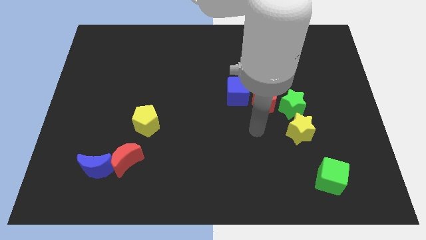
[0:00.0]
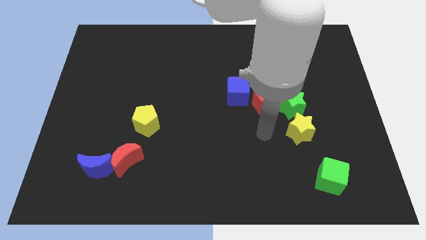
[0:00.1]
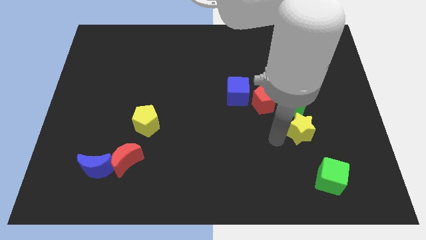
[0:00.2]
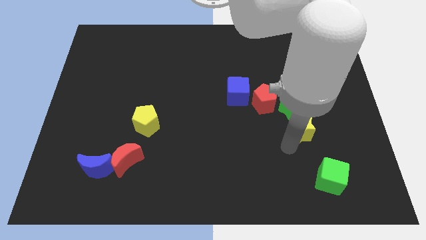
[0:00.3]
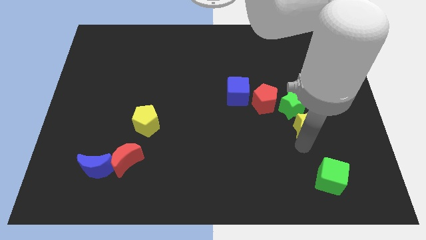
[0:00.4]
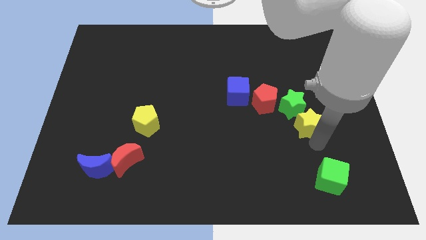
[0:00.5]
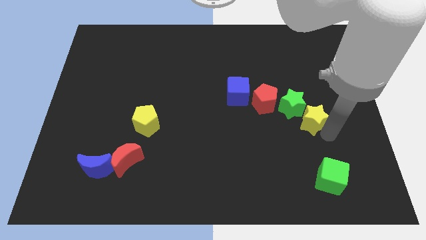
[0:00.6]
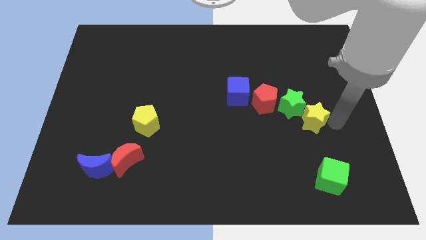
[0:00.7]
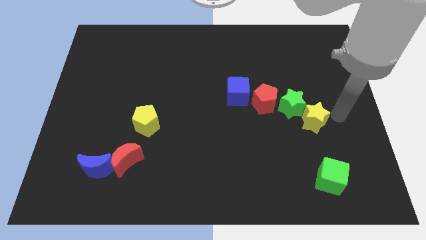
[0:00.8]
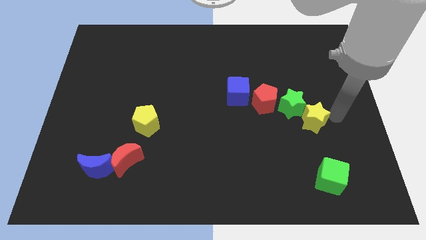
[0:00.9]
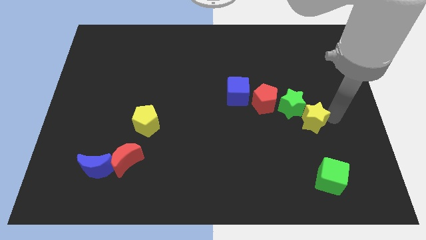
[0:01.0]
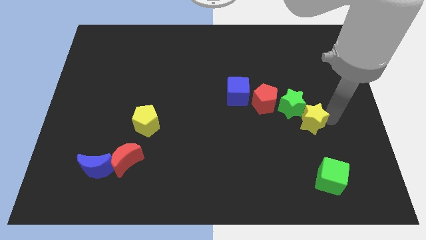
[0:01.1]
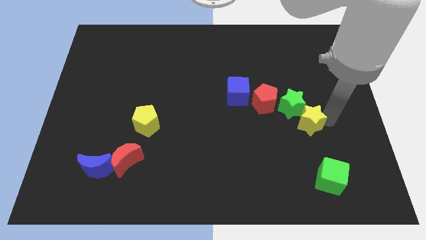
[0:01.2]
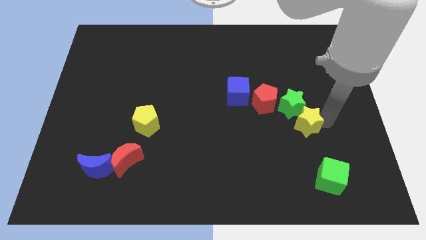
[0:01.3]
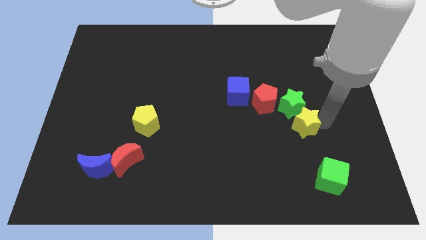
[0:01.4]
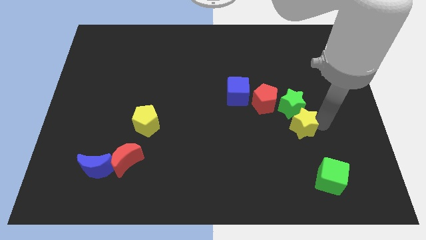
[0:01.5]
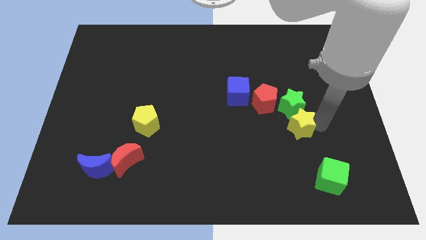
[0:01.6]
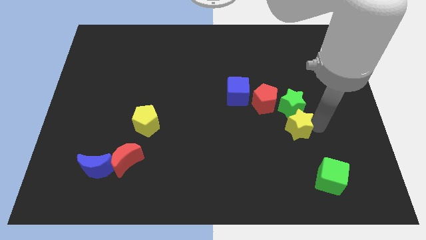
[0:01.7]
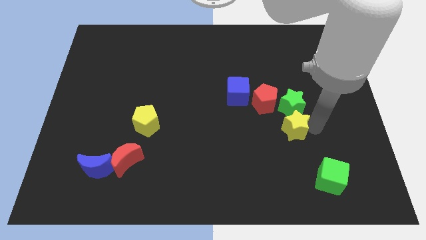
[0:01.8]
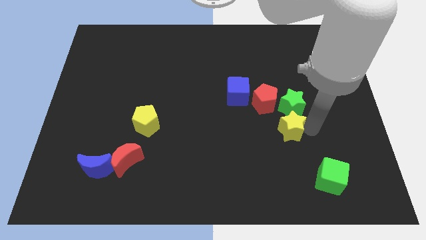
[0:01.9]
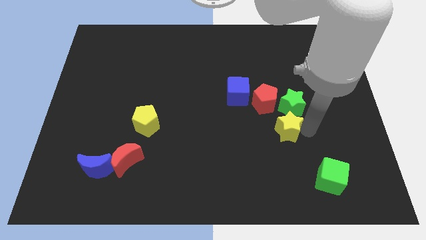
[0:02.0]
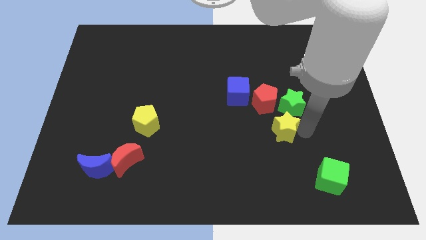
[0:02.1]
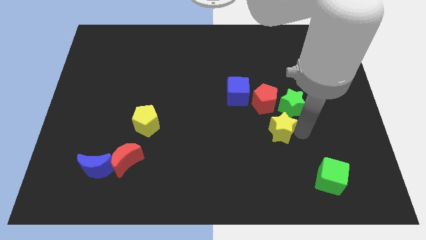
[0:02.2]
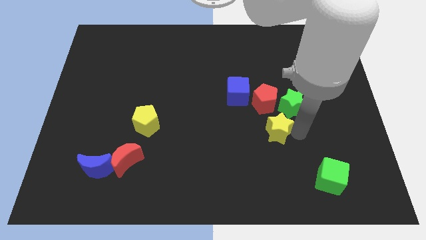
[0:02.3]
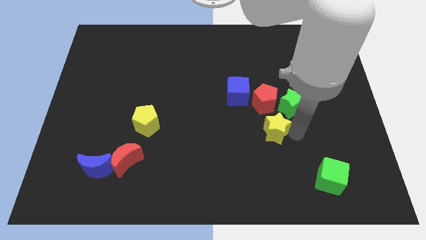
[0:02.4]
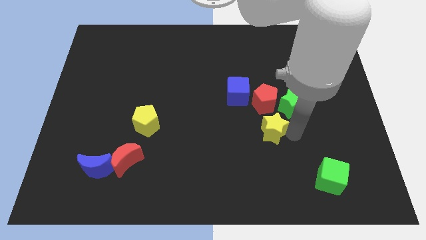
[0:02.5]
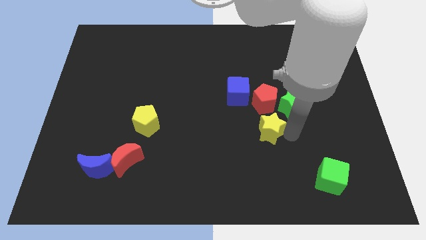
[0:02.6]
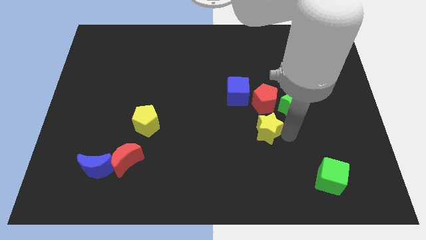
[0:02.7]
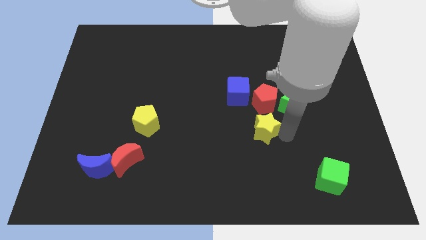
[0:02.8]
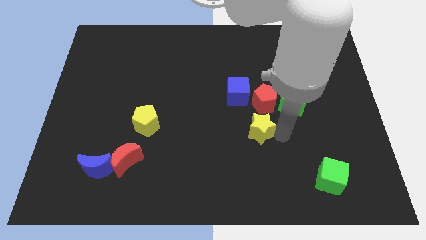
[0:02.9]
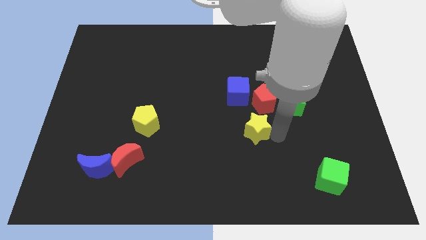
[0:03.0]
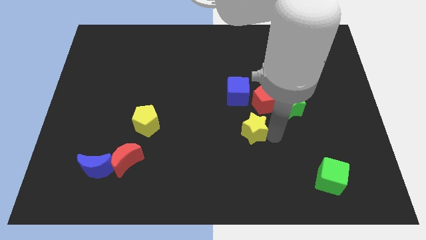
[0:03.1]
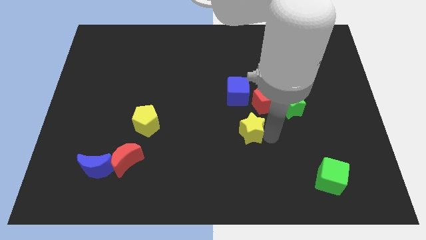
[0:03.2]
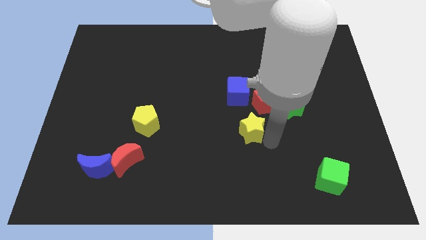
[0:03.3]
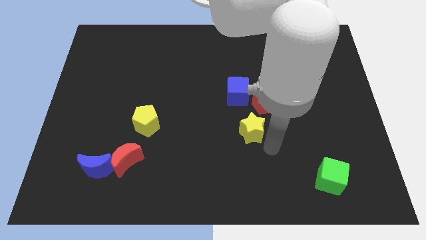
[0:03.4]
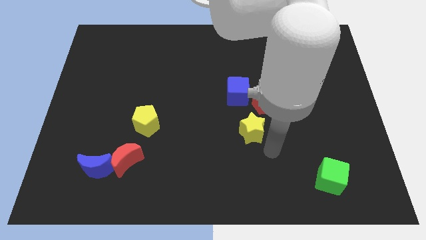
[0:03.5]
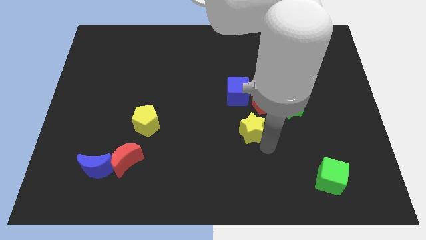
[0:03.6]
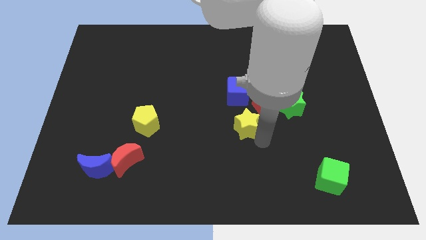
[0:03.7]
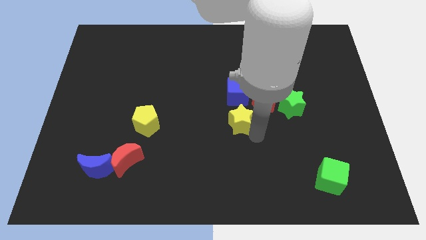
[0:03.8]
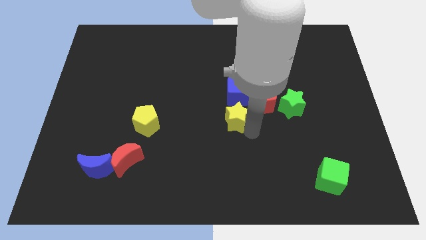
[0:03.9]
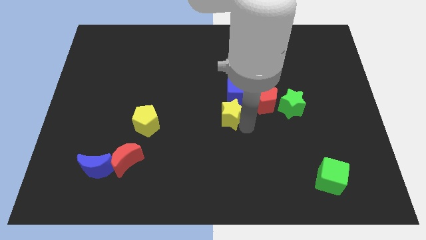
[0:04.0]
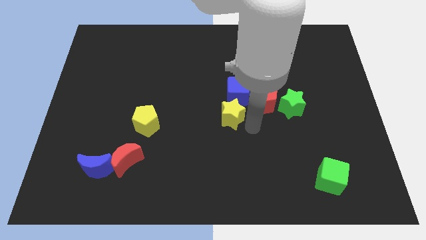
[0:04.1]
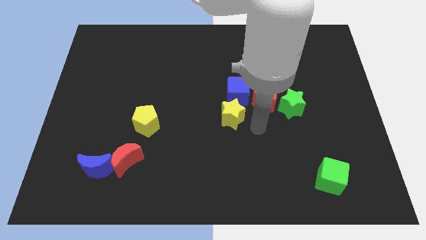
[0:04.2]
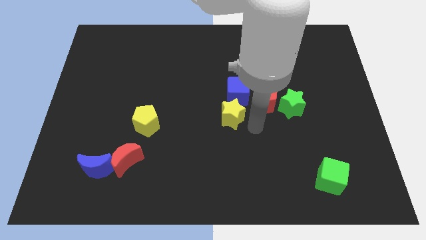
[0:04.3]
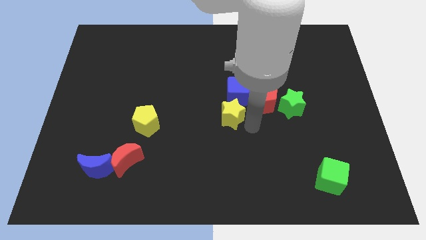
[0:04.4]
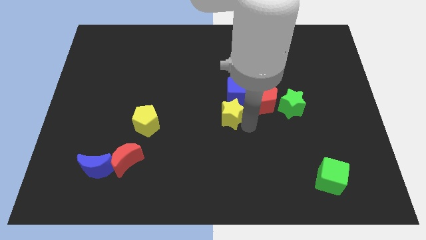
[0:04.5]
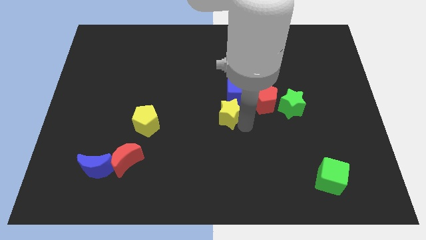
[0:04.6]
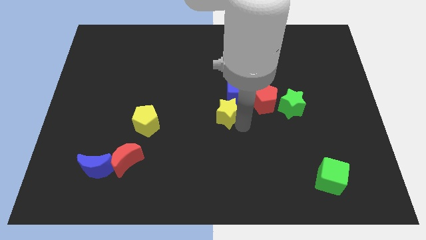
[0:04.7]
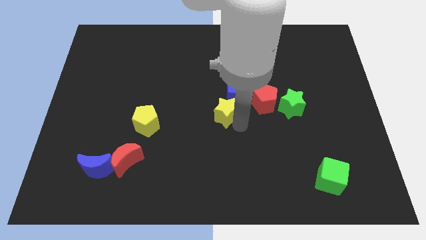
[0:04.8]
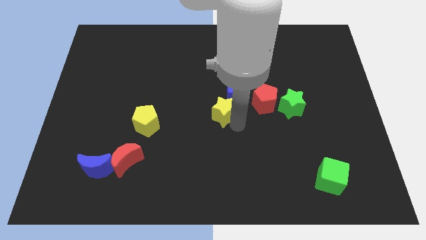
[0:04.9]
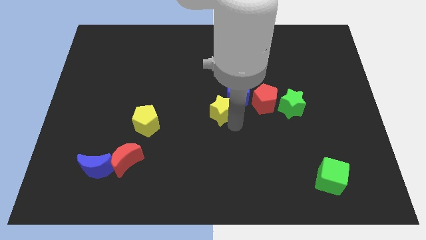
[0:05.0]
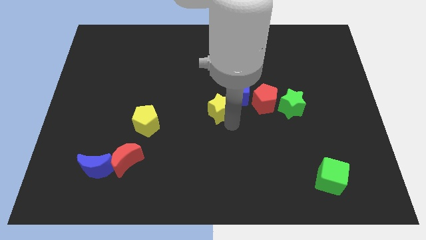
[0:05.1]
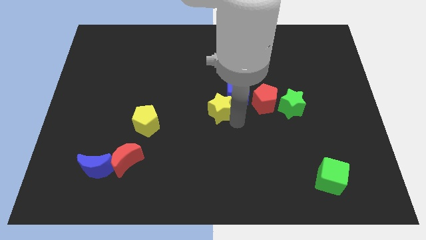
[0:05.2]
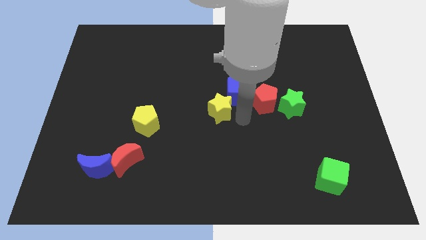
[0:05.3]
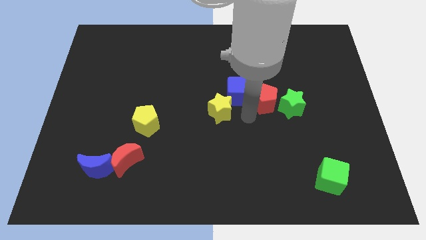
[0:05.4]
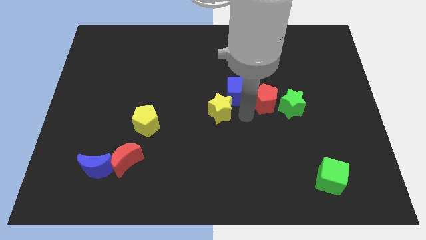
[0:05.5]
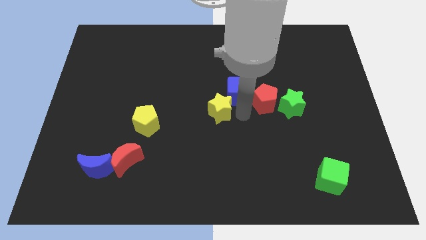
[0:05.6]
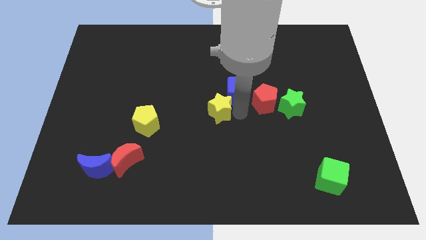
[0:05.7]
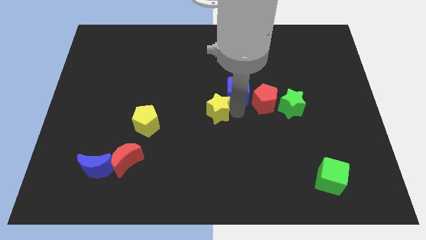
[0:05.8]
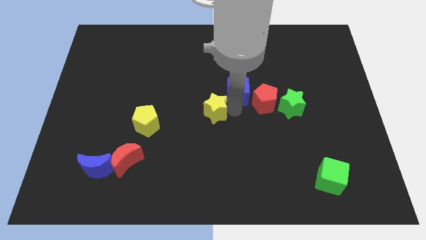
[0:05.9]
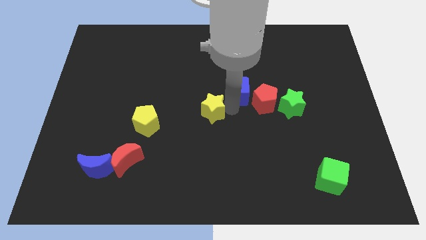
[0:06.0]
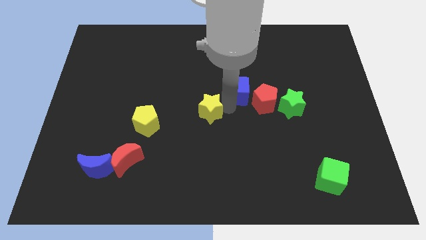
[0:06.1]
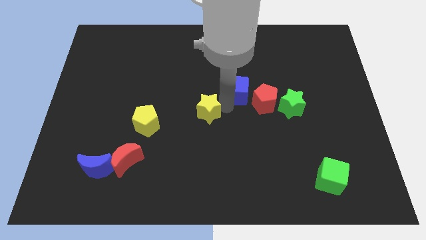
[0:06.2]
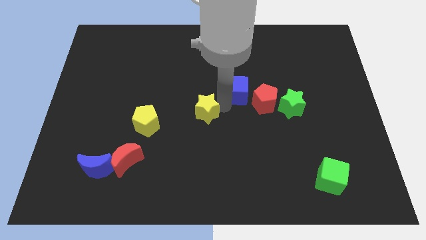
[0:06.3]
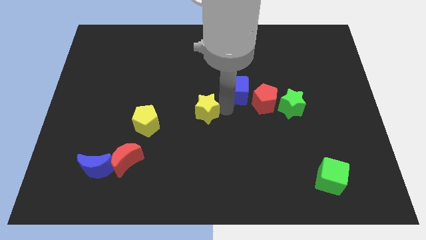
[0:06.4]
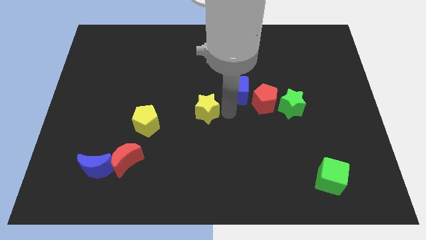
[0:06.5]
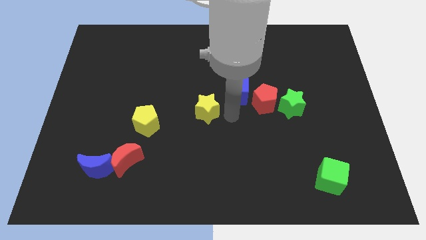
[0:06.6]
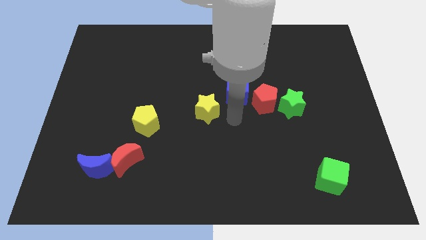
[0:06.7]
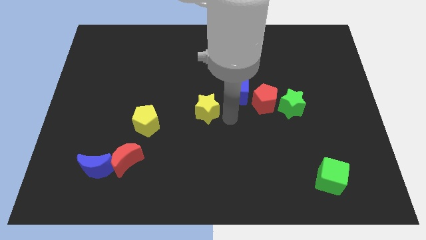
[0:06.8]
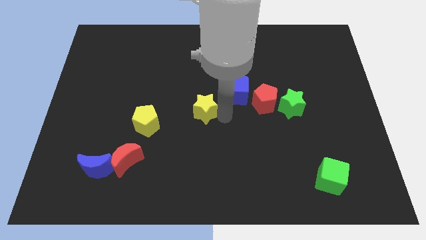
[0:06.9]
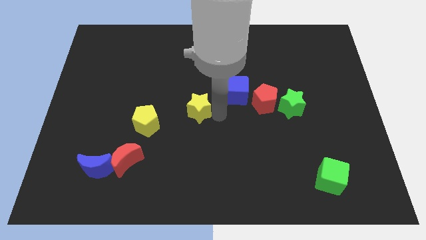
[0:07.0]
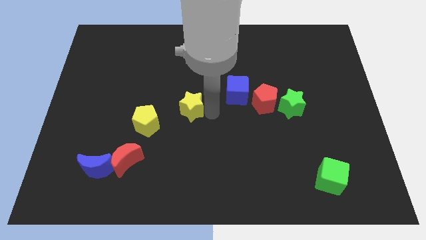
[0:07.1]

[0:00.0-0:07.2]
push the yellow star diagonally up and to the right of the yellow pentagon
